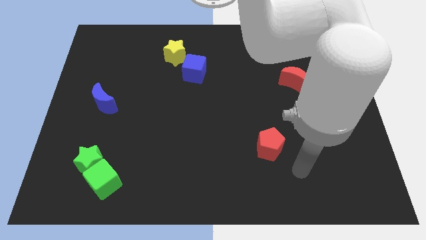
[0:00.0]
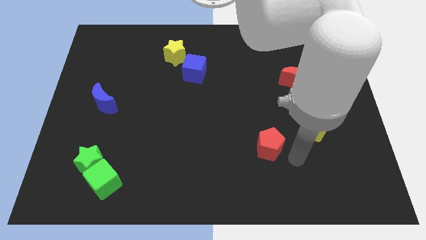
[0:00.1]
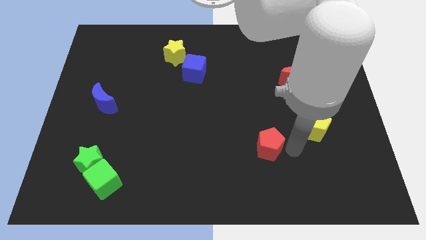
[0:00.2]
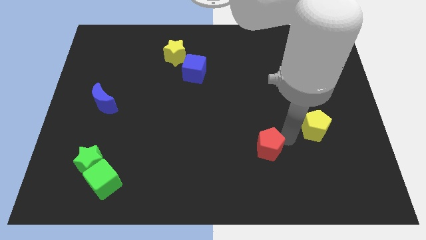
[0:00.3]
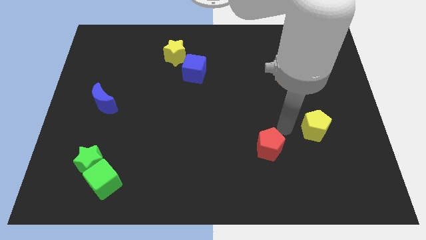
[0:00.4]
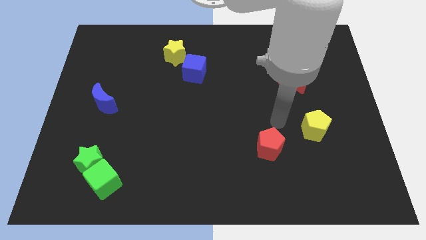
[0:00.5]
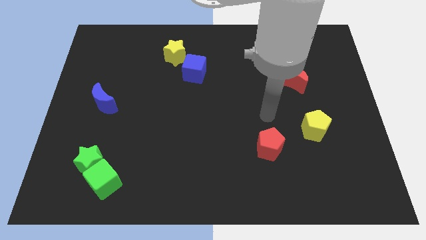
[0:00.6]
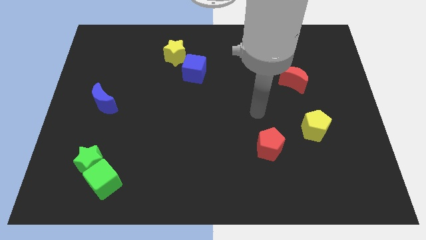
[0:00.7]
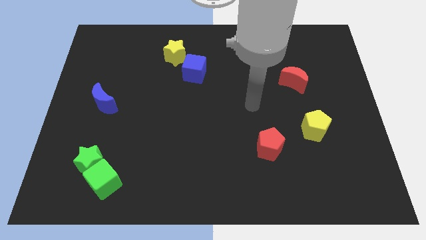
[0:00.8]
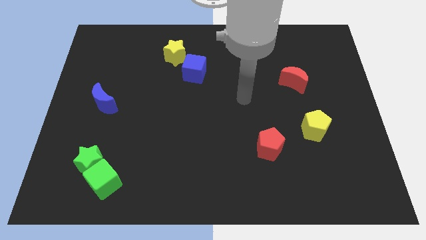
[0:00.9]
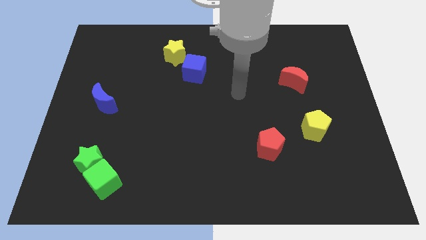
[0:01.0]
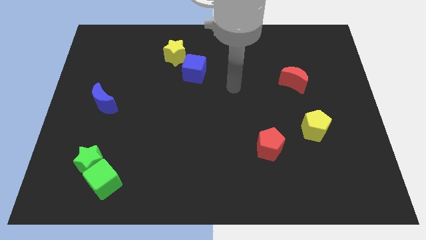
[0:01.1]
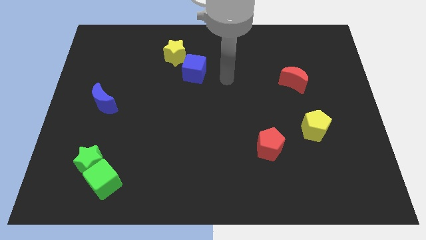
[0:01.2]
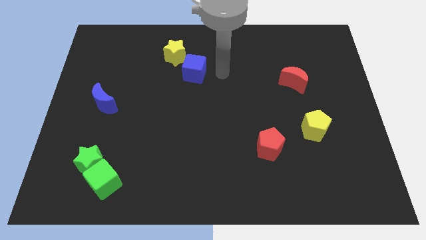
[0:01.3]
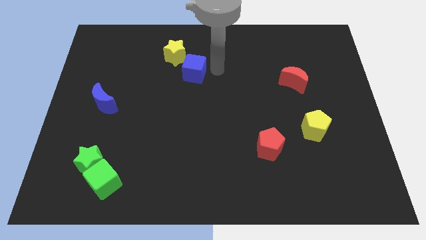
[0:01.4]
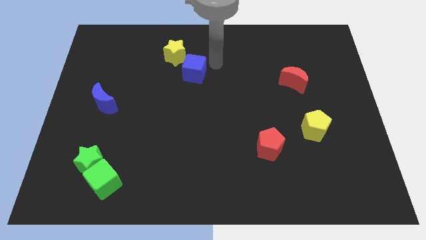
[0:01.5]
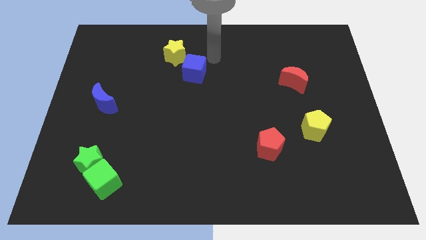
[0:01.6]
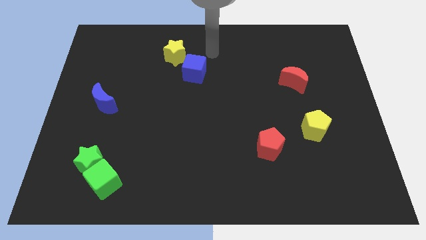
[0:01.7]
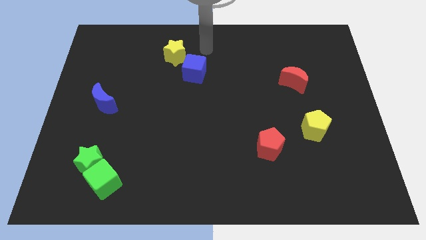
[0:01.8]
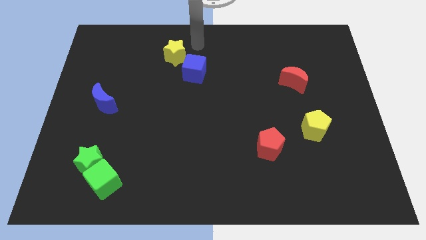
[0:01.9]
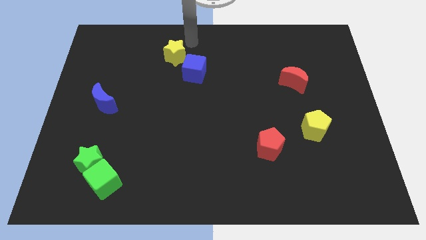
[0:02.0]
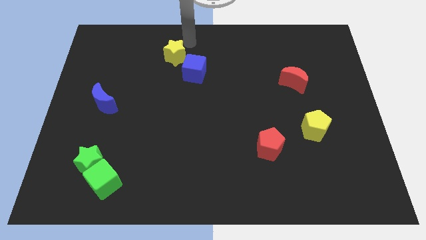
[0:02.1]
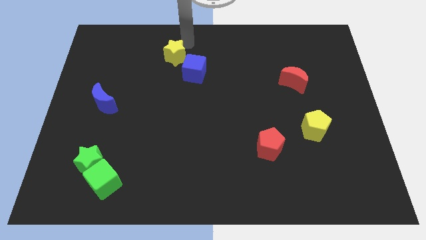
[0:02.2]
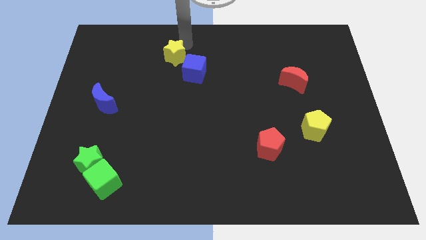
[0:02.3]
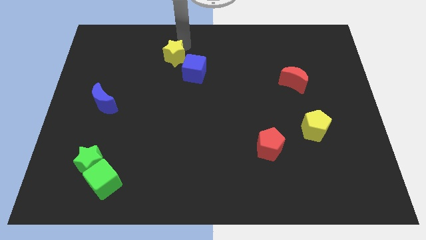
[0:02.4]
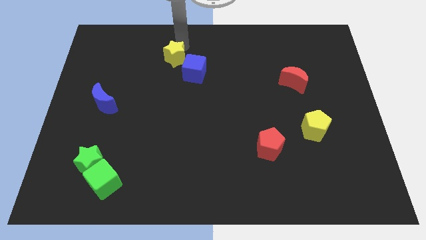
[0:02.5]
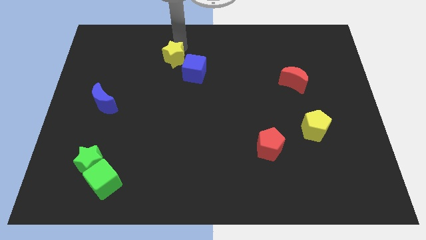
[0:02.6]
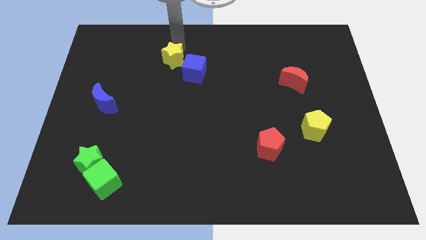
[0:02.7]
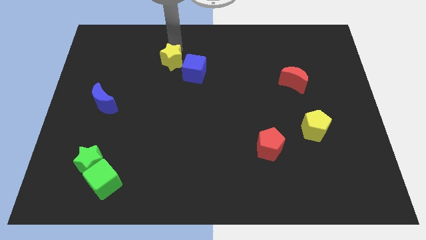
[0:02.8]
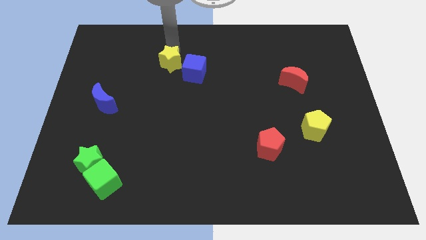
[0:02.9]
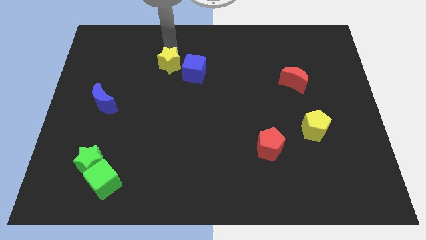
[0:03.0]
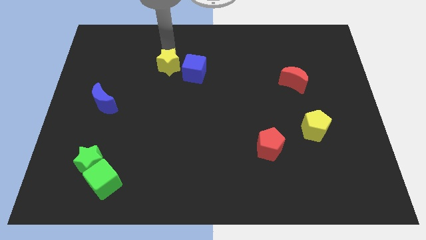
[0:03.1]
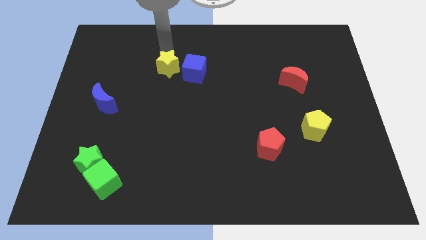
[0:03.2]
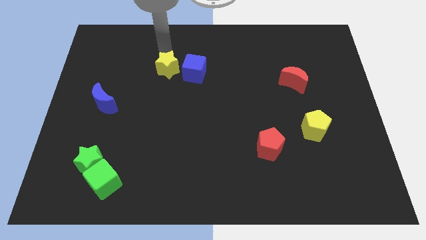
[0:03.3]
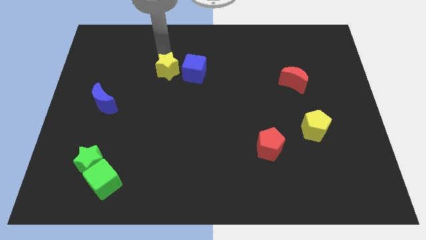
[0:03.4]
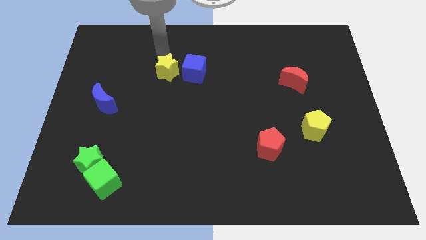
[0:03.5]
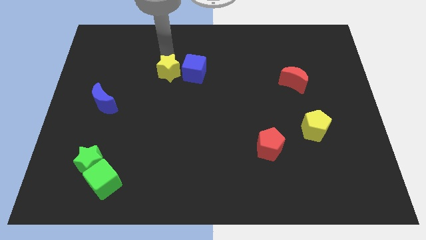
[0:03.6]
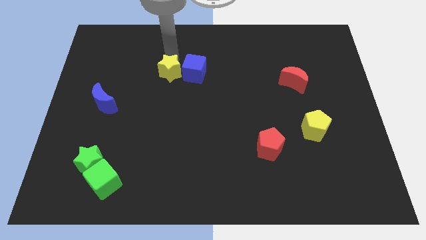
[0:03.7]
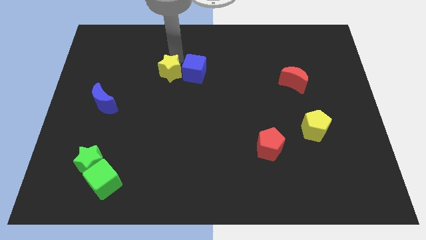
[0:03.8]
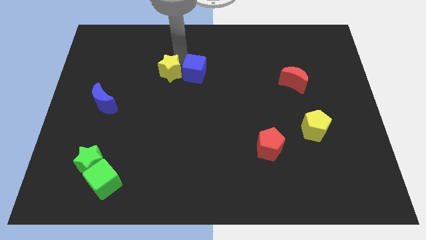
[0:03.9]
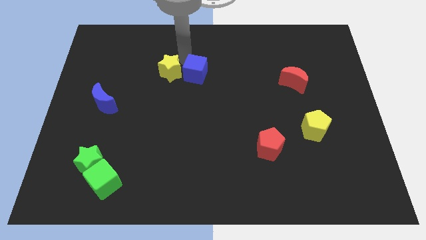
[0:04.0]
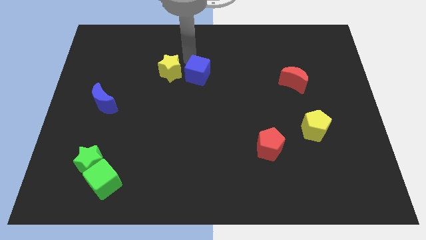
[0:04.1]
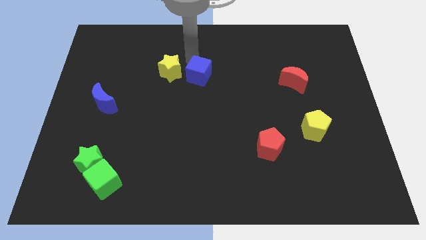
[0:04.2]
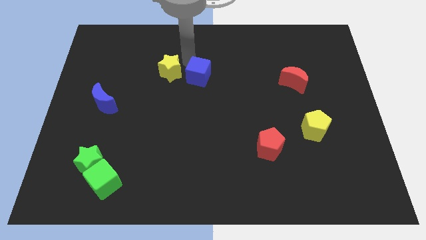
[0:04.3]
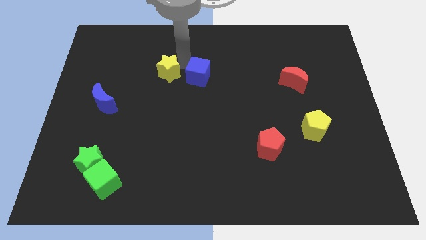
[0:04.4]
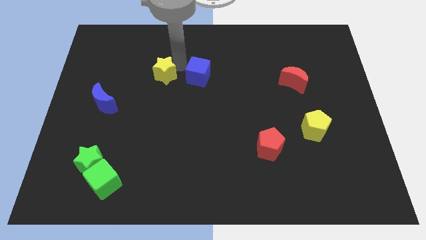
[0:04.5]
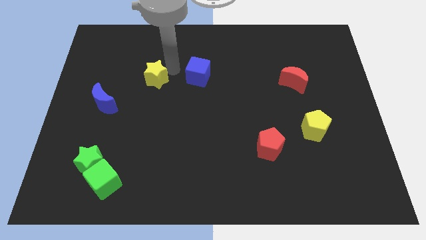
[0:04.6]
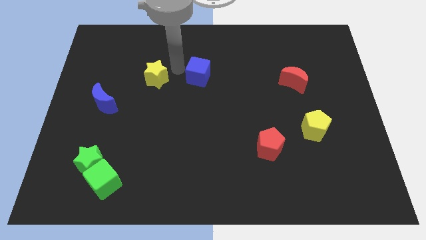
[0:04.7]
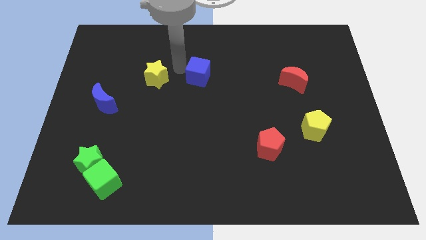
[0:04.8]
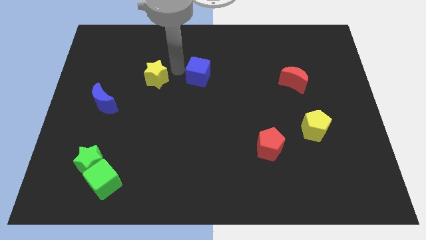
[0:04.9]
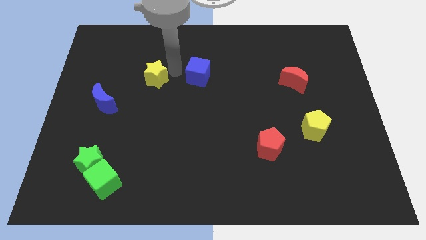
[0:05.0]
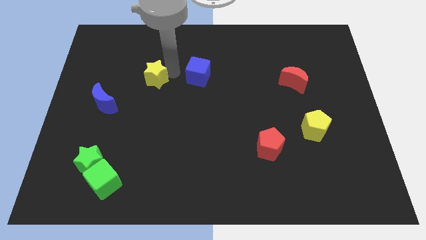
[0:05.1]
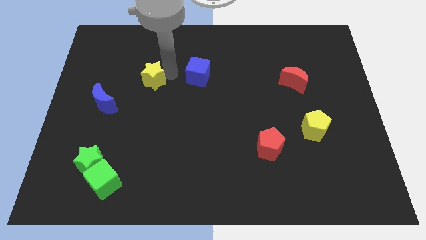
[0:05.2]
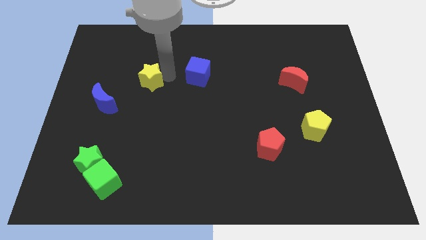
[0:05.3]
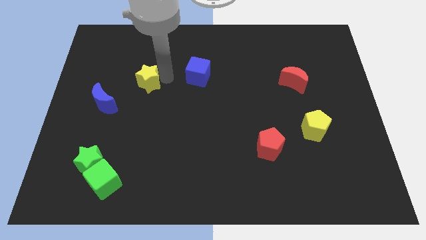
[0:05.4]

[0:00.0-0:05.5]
put the yellow star to the top right side of the blue moon

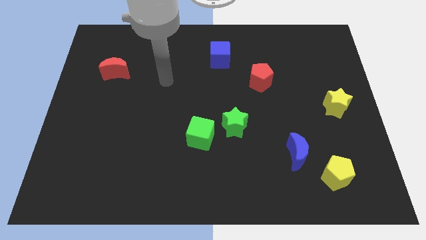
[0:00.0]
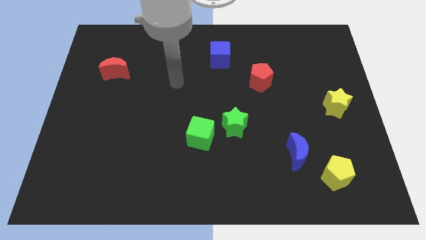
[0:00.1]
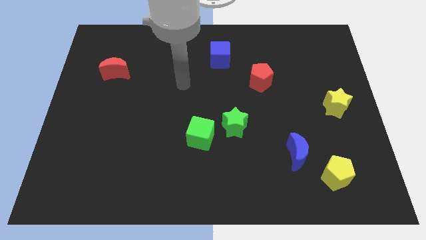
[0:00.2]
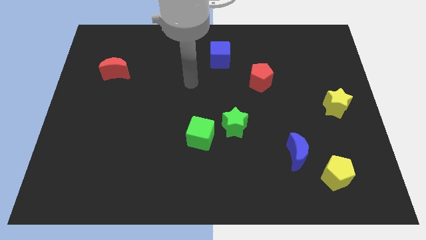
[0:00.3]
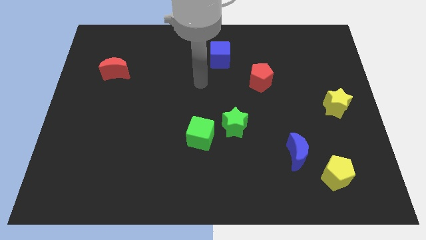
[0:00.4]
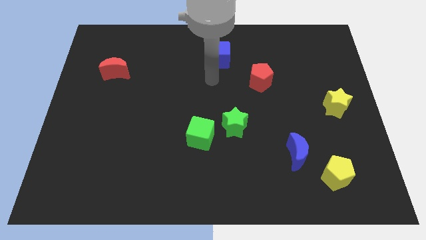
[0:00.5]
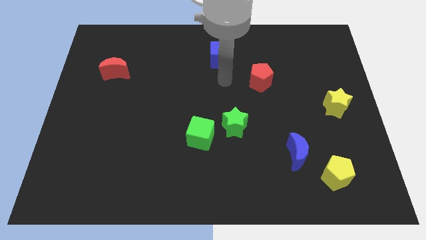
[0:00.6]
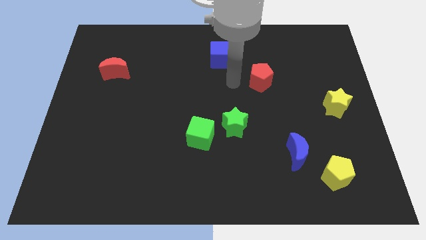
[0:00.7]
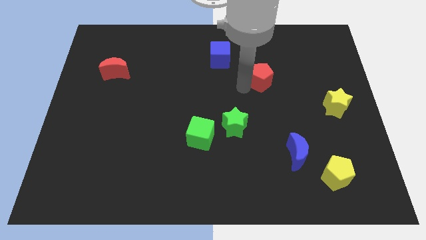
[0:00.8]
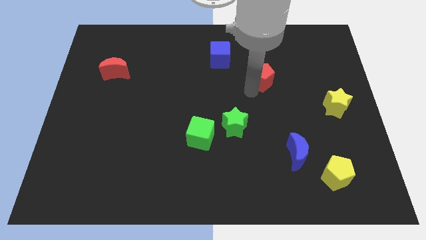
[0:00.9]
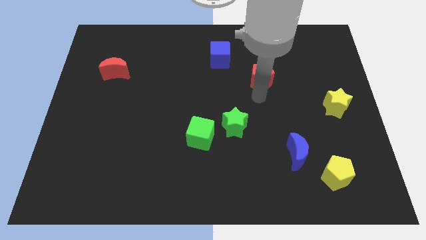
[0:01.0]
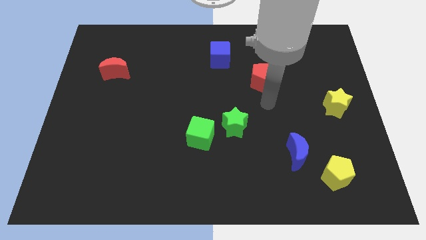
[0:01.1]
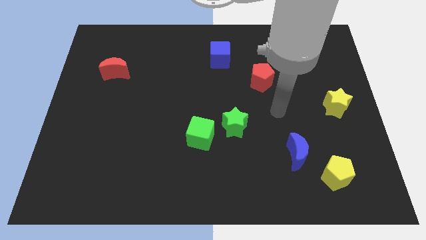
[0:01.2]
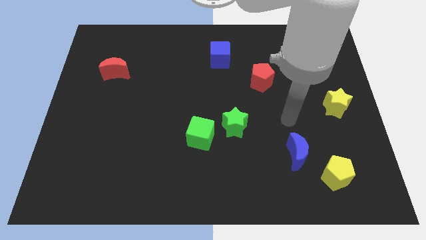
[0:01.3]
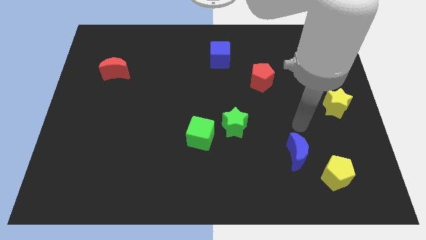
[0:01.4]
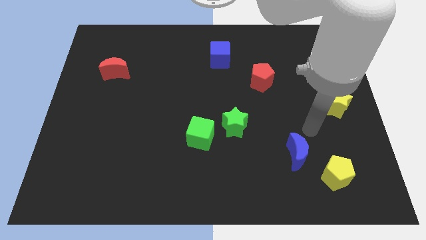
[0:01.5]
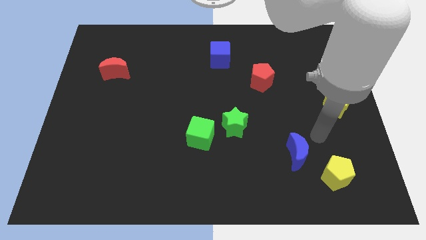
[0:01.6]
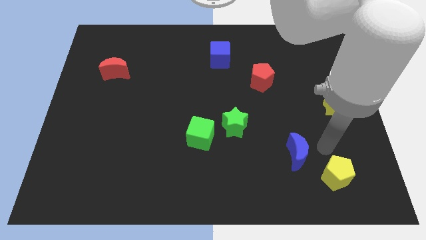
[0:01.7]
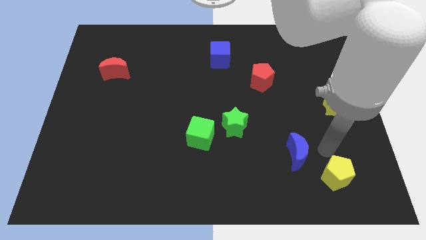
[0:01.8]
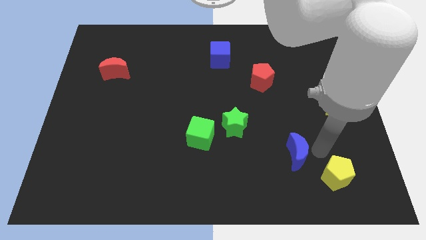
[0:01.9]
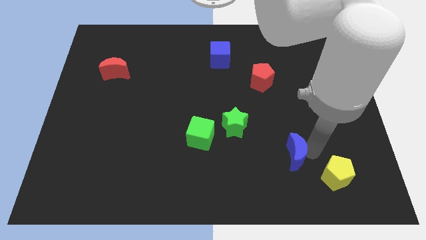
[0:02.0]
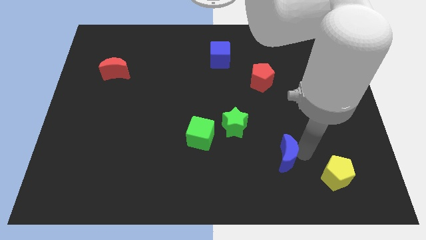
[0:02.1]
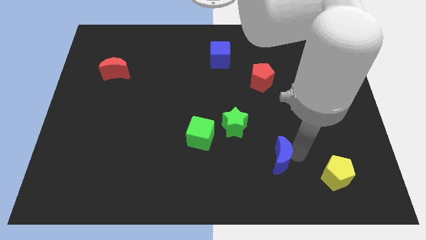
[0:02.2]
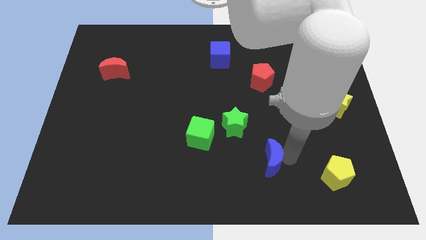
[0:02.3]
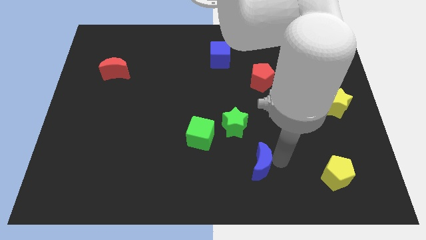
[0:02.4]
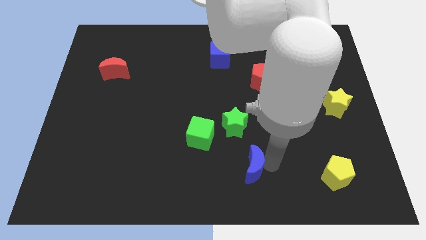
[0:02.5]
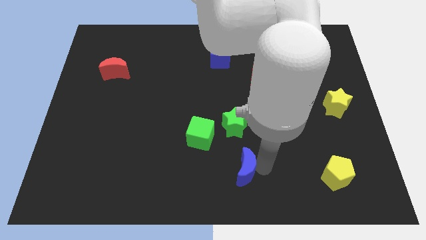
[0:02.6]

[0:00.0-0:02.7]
push the blue moon to the bottom right of the green cube
